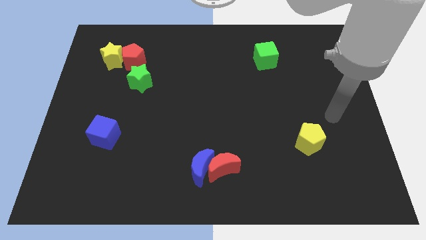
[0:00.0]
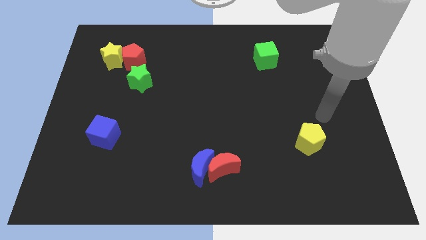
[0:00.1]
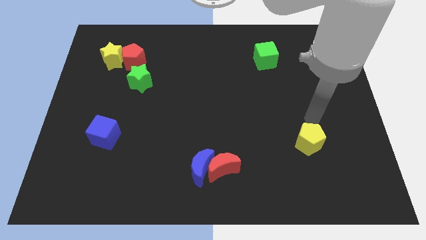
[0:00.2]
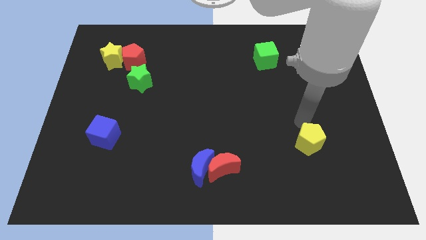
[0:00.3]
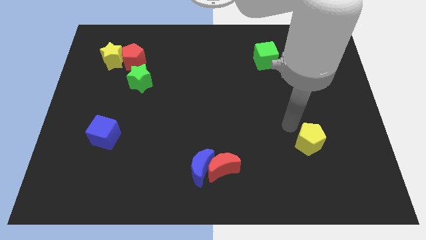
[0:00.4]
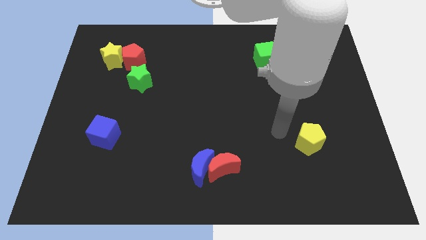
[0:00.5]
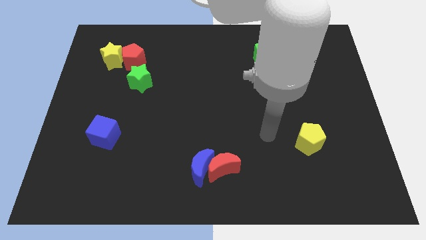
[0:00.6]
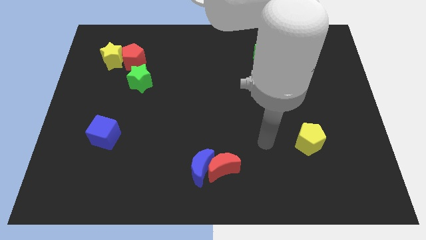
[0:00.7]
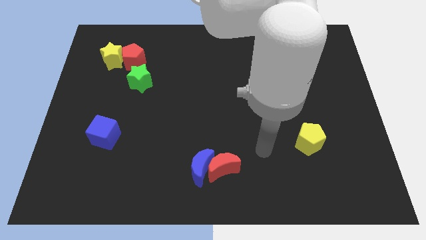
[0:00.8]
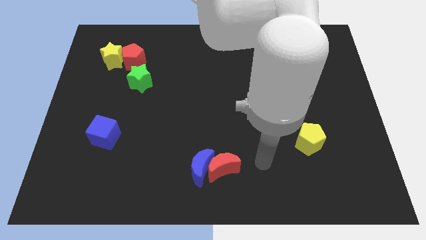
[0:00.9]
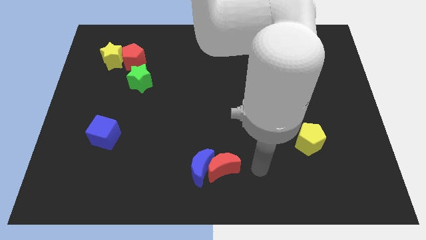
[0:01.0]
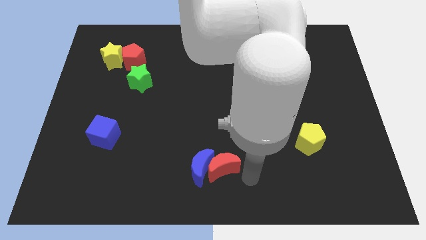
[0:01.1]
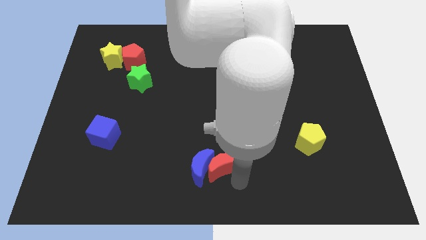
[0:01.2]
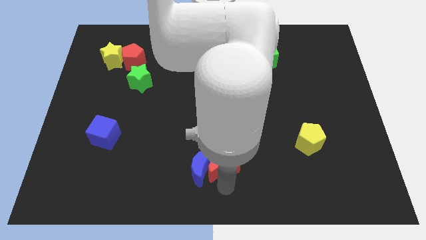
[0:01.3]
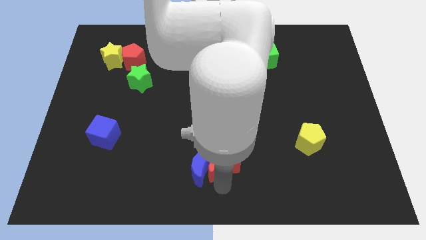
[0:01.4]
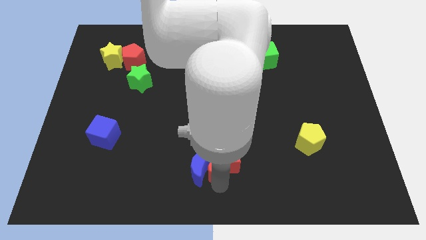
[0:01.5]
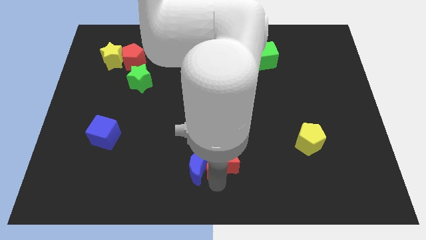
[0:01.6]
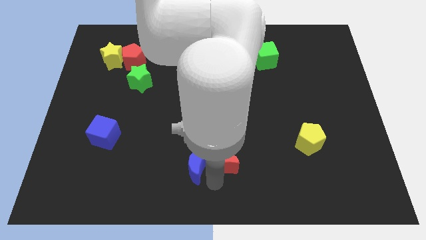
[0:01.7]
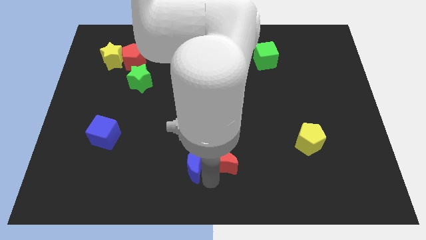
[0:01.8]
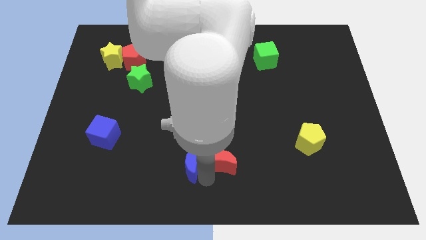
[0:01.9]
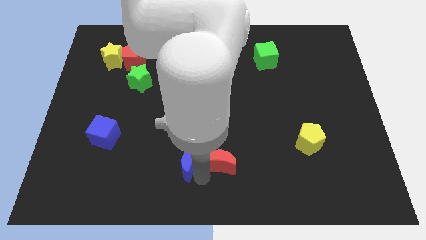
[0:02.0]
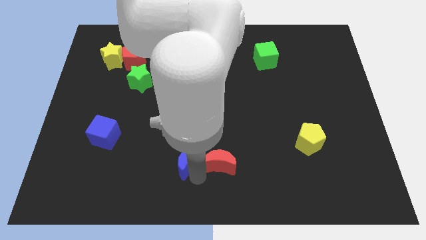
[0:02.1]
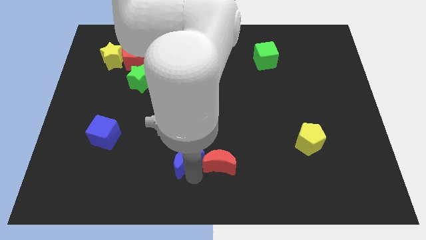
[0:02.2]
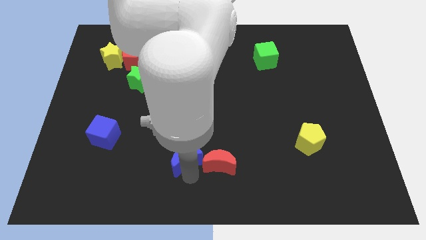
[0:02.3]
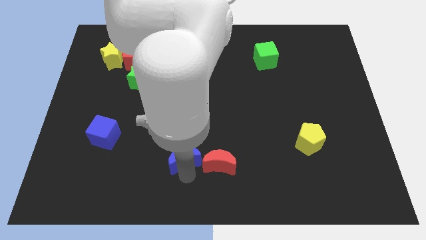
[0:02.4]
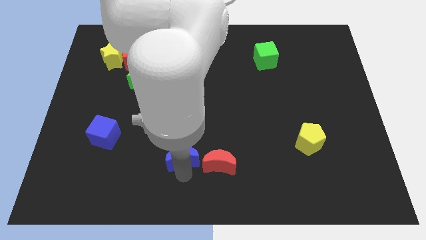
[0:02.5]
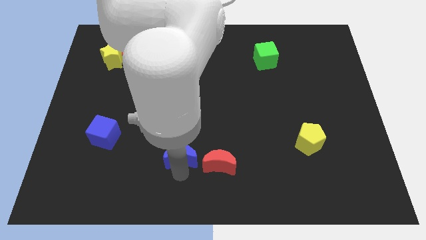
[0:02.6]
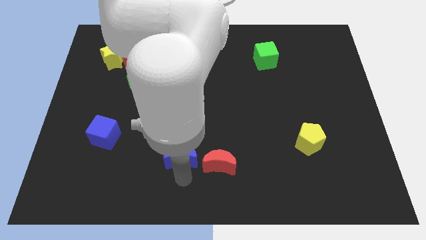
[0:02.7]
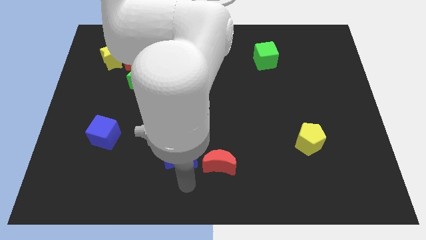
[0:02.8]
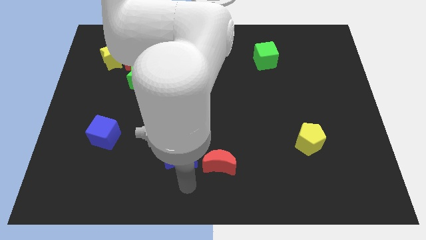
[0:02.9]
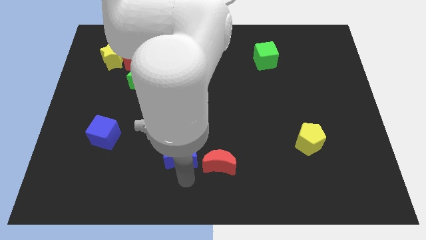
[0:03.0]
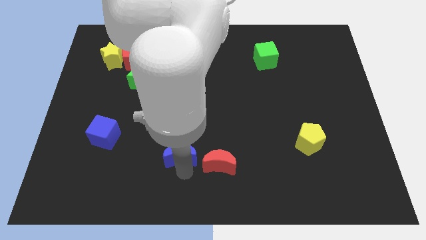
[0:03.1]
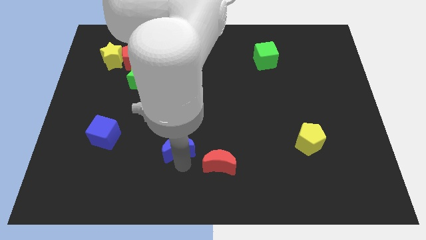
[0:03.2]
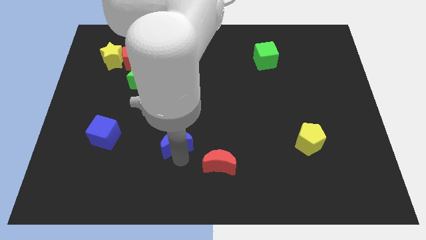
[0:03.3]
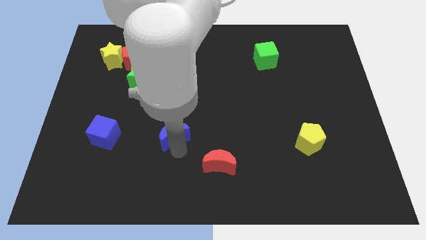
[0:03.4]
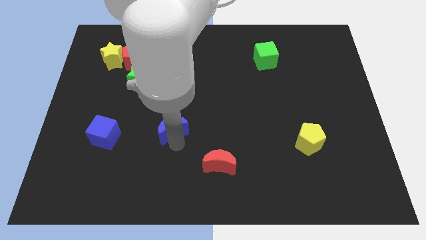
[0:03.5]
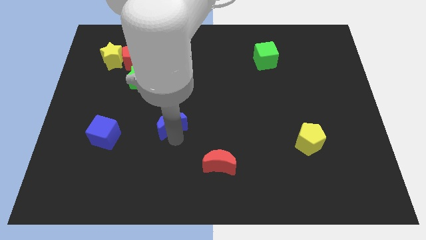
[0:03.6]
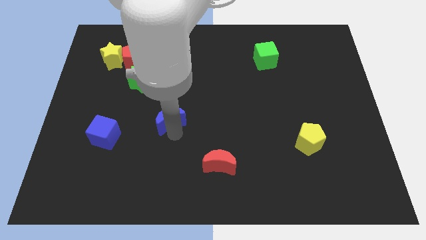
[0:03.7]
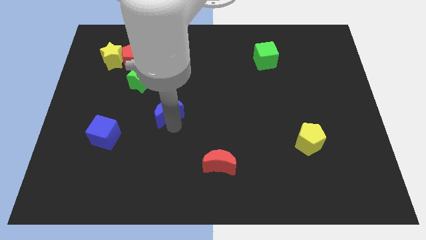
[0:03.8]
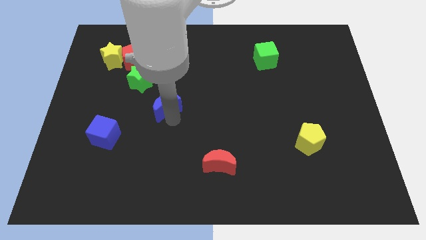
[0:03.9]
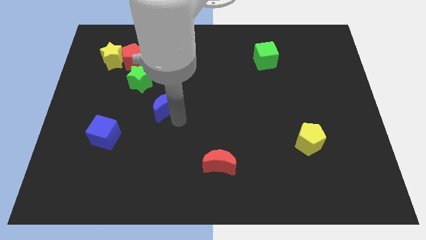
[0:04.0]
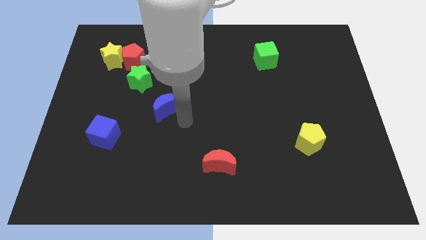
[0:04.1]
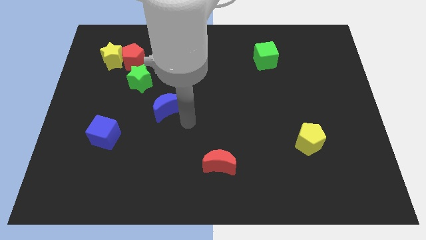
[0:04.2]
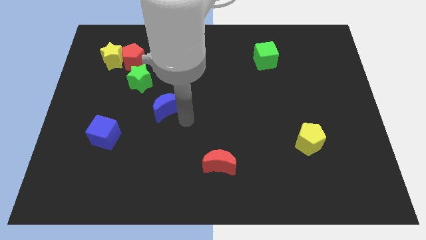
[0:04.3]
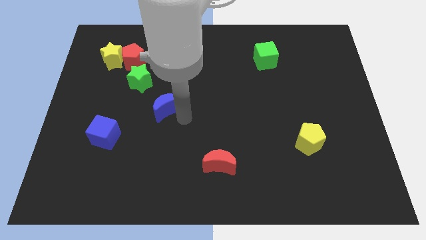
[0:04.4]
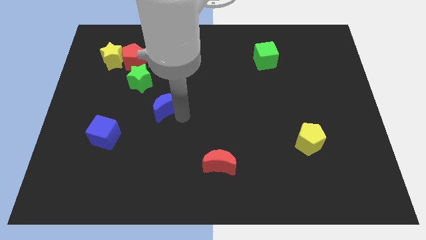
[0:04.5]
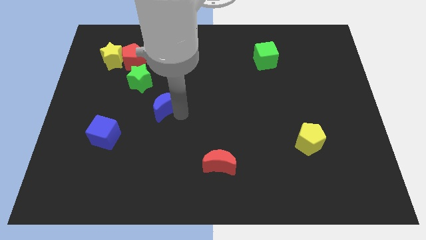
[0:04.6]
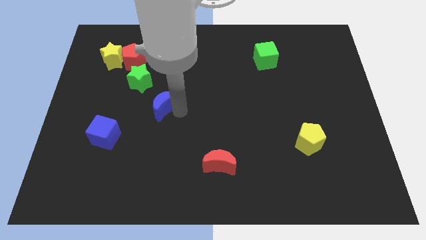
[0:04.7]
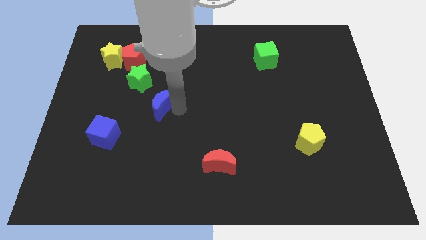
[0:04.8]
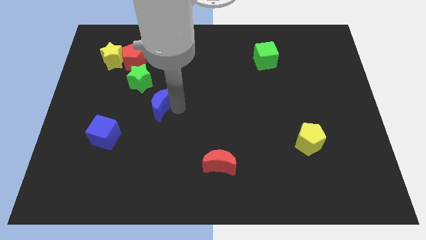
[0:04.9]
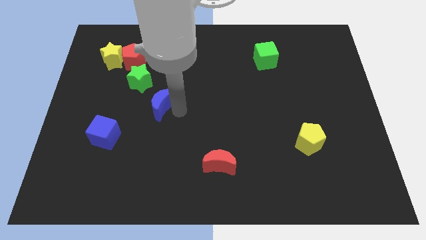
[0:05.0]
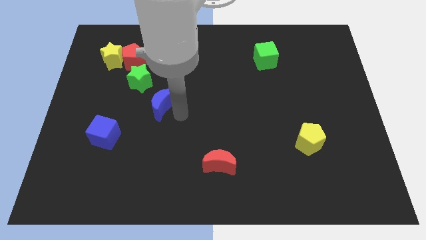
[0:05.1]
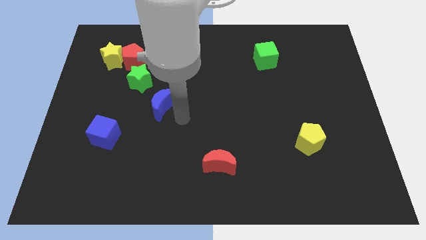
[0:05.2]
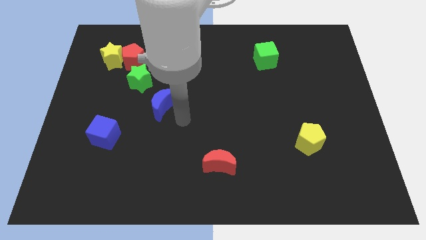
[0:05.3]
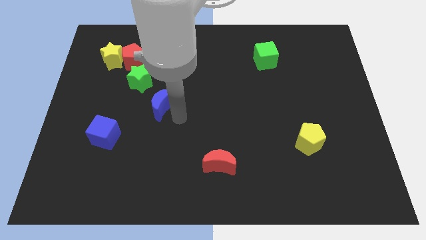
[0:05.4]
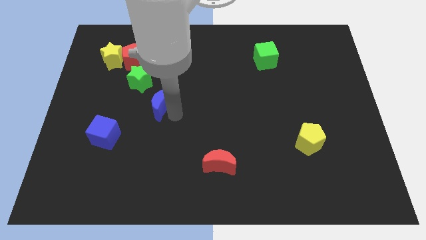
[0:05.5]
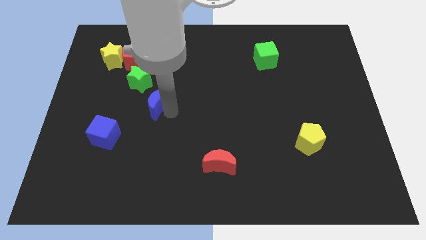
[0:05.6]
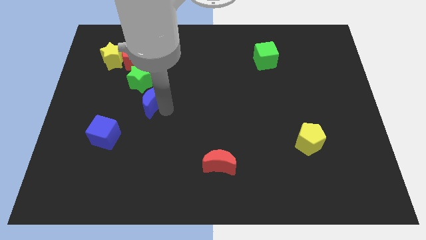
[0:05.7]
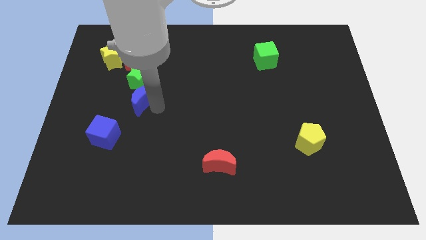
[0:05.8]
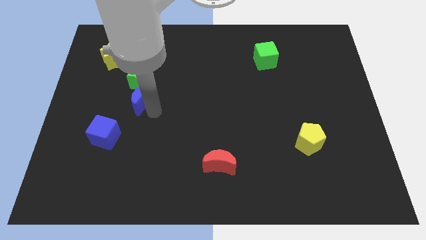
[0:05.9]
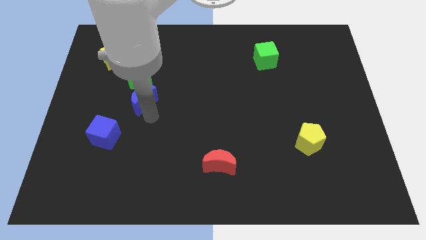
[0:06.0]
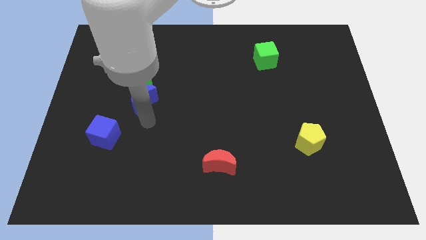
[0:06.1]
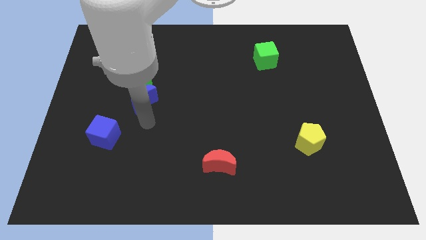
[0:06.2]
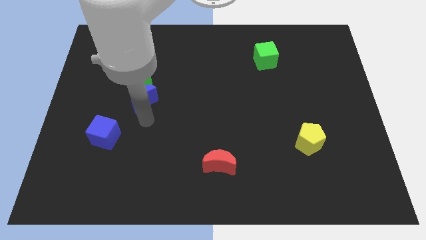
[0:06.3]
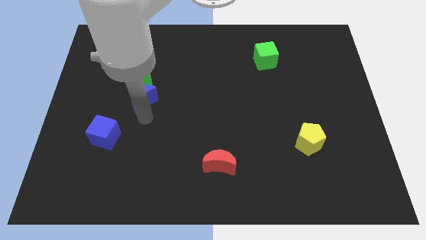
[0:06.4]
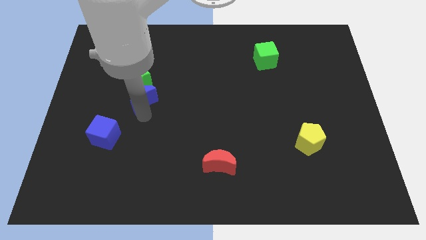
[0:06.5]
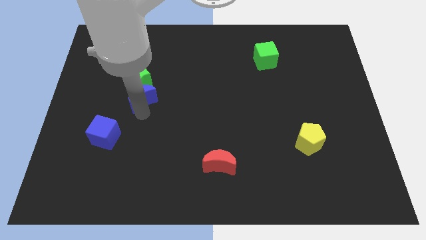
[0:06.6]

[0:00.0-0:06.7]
move the blue moon next to the green star
